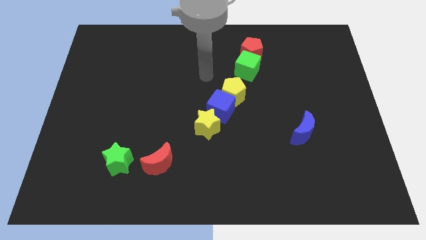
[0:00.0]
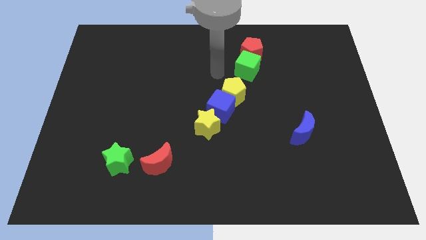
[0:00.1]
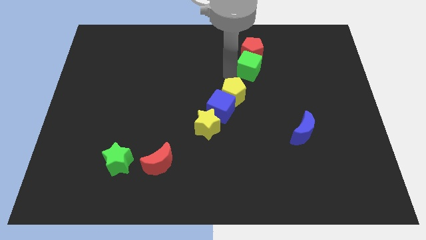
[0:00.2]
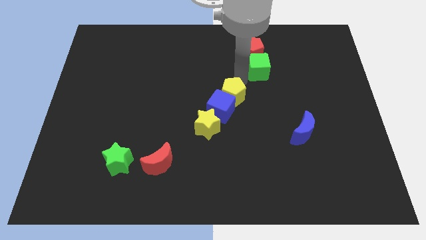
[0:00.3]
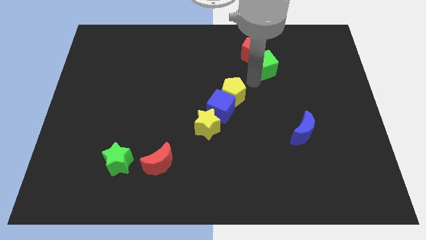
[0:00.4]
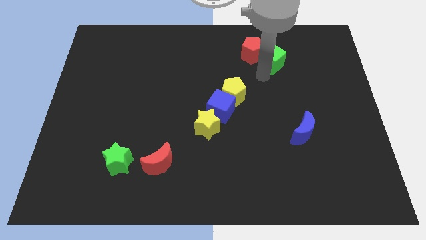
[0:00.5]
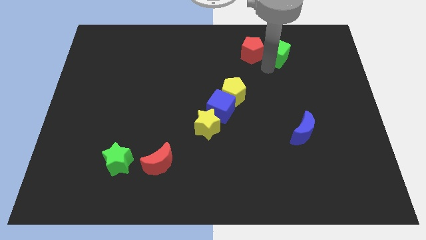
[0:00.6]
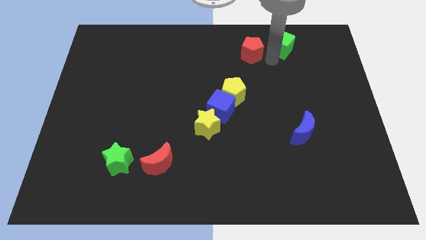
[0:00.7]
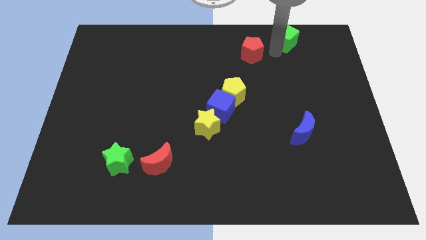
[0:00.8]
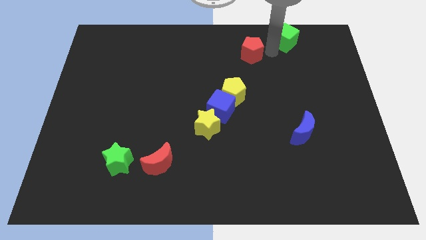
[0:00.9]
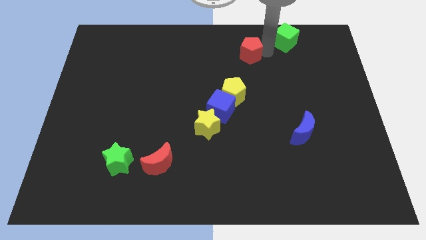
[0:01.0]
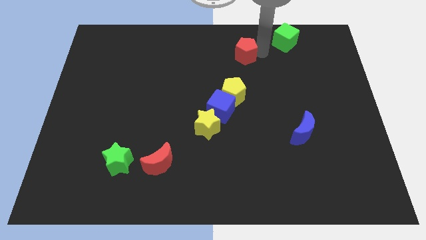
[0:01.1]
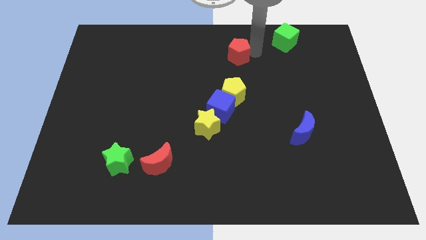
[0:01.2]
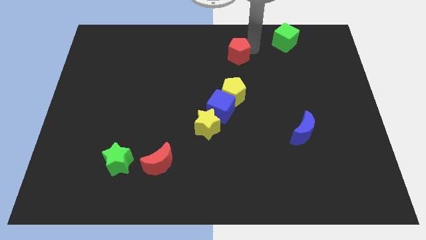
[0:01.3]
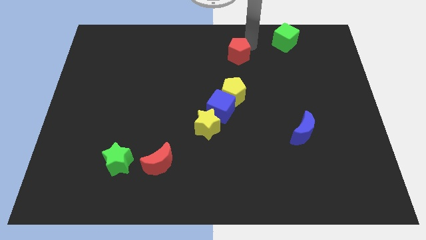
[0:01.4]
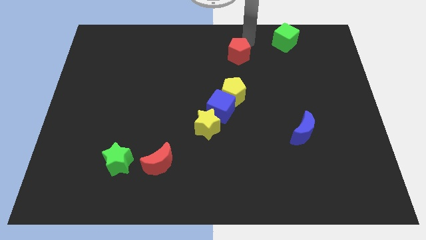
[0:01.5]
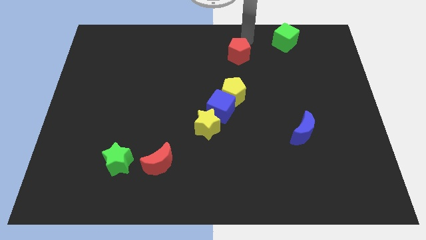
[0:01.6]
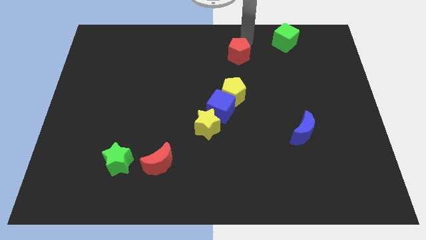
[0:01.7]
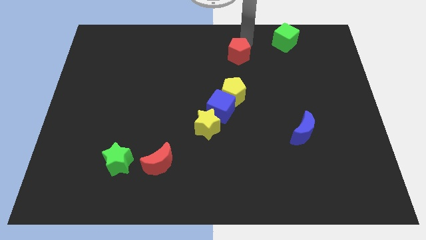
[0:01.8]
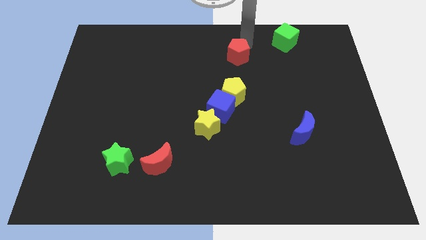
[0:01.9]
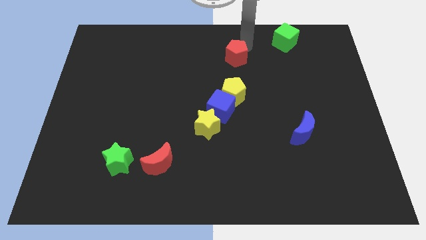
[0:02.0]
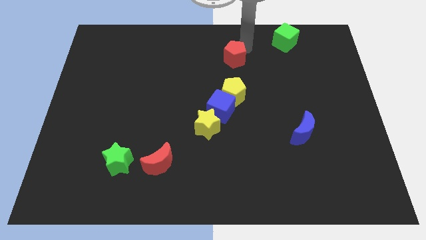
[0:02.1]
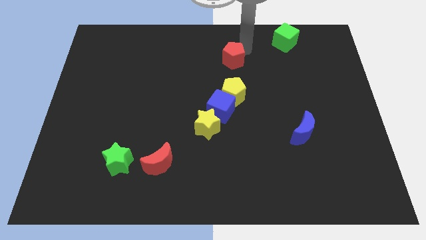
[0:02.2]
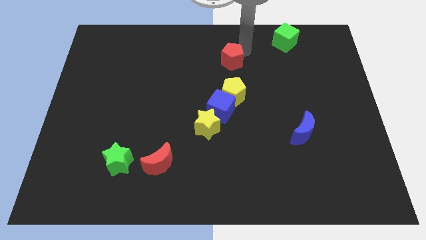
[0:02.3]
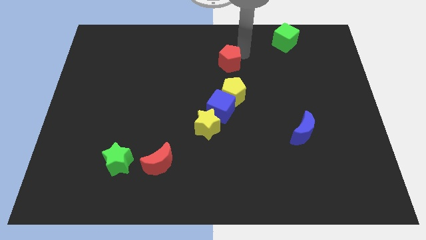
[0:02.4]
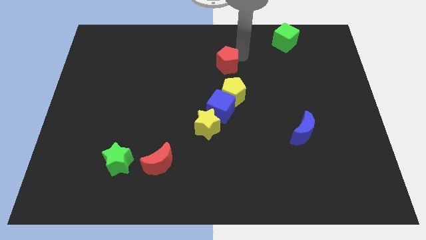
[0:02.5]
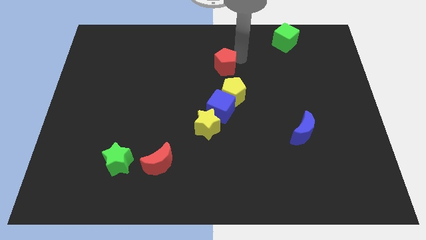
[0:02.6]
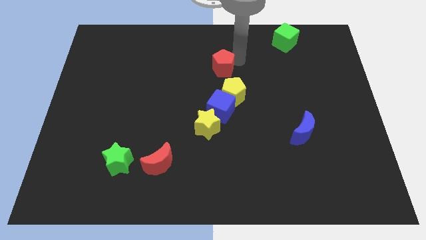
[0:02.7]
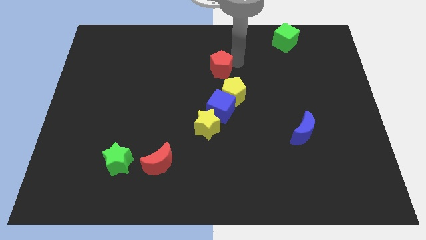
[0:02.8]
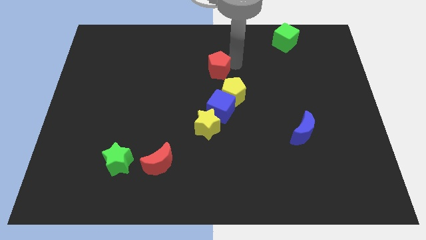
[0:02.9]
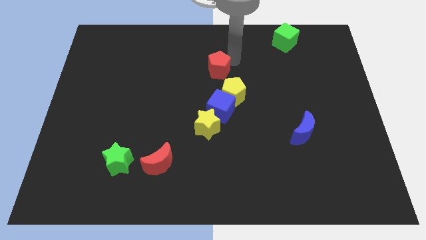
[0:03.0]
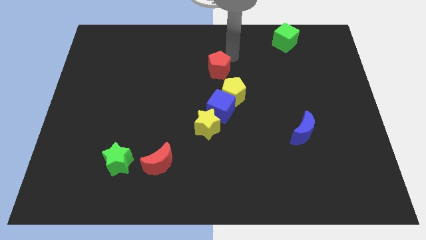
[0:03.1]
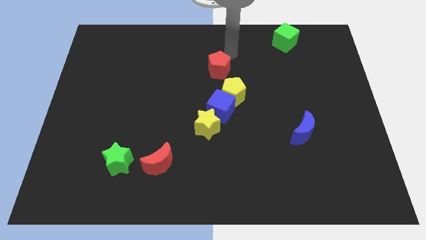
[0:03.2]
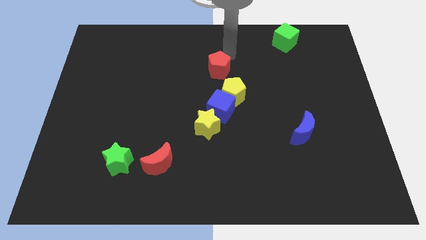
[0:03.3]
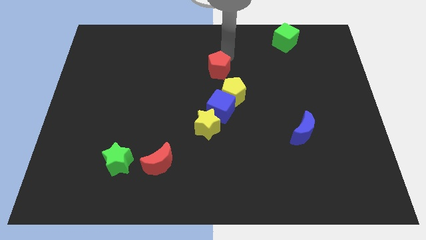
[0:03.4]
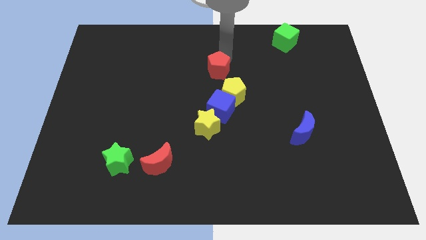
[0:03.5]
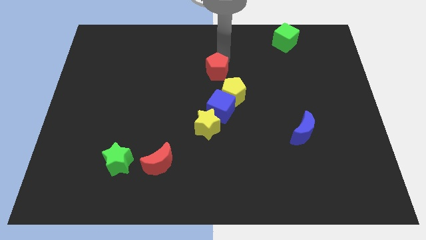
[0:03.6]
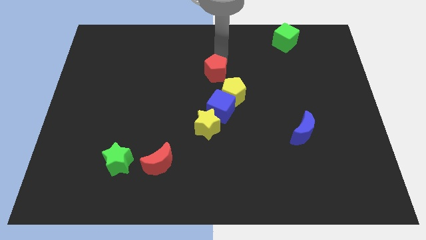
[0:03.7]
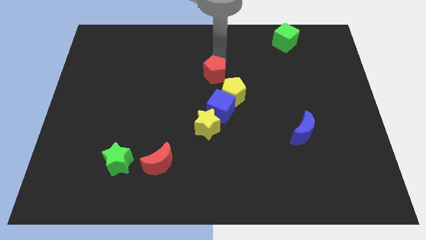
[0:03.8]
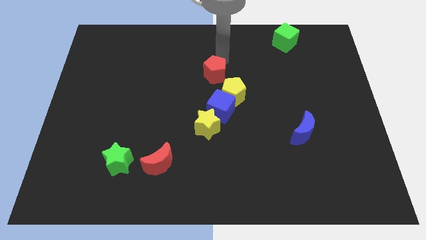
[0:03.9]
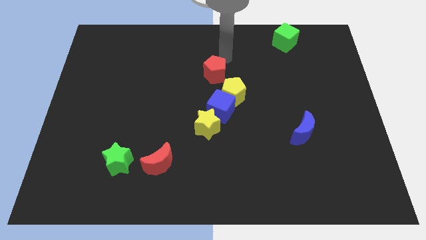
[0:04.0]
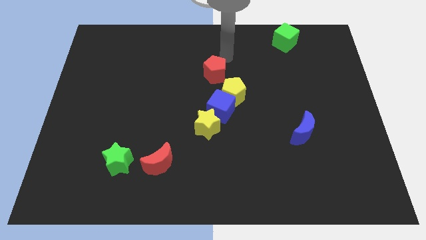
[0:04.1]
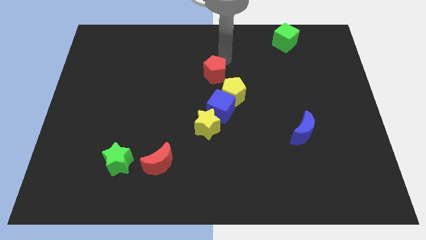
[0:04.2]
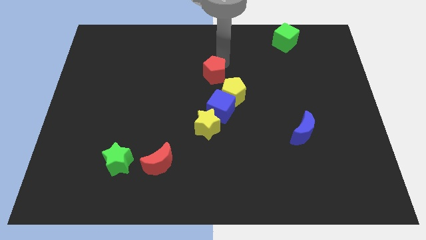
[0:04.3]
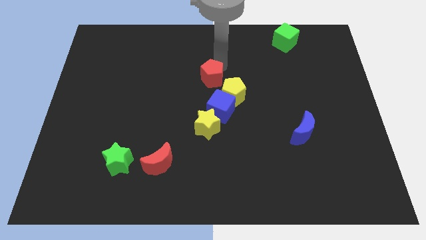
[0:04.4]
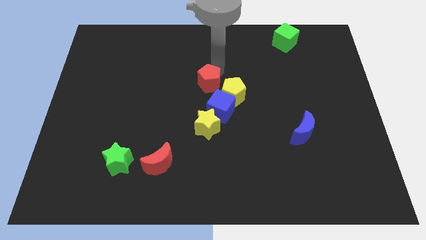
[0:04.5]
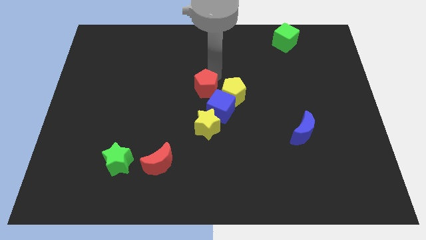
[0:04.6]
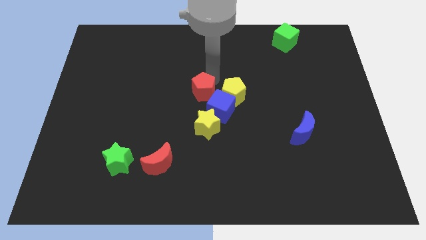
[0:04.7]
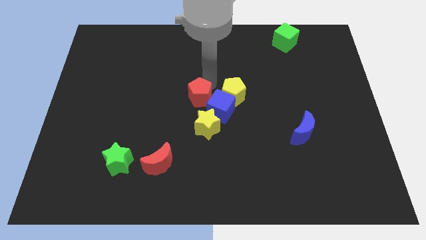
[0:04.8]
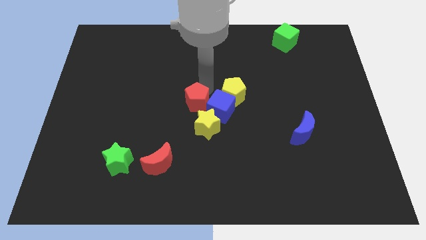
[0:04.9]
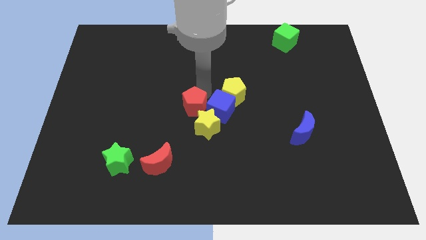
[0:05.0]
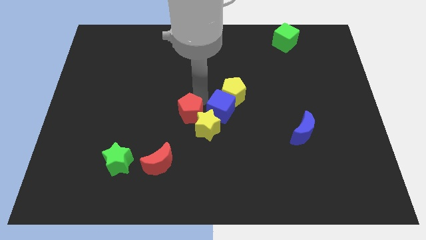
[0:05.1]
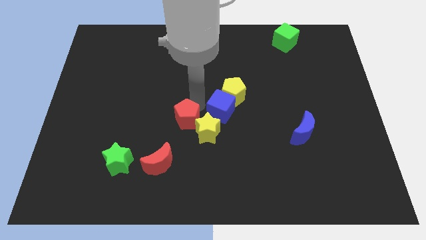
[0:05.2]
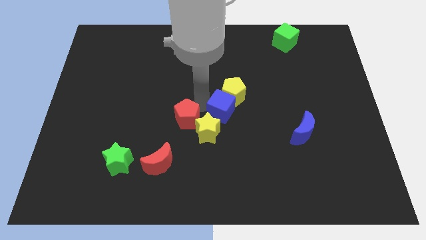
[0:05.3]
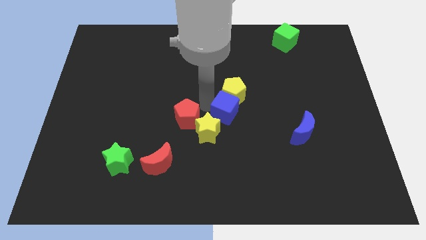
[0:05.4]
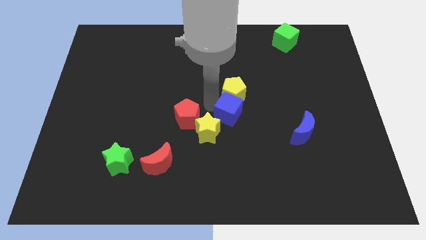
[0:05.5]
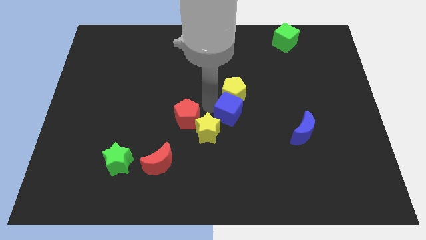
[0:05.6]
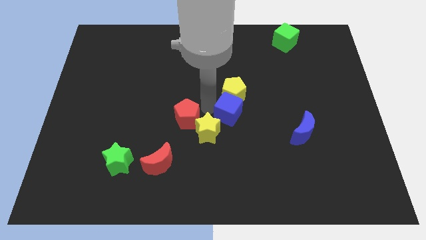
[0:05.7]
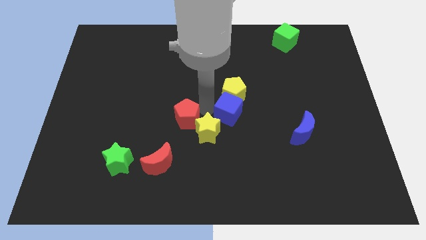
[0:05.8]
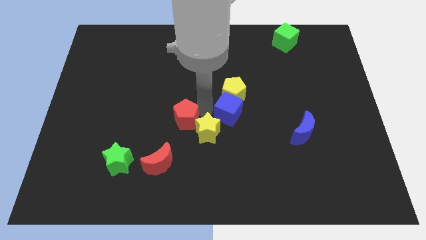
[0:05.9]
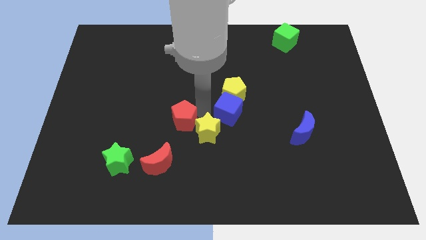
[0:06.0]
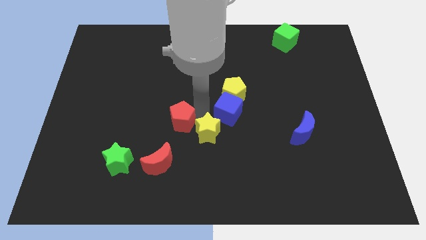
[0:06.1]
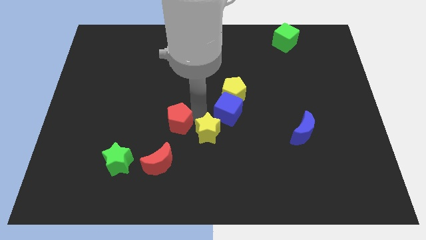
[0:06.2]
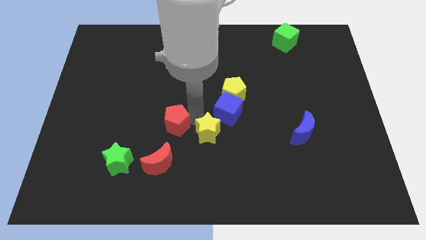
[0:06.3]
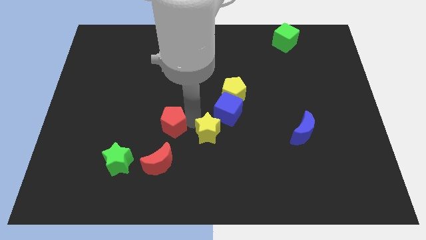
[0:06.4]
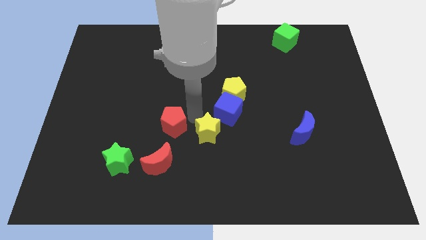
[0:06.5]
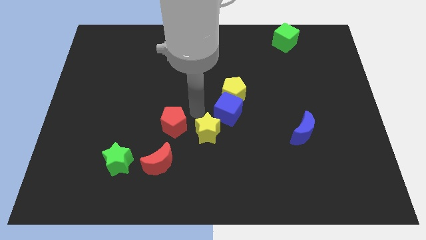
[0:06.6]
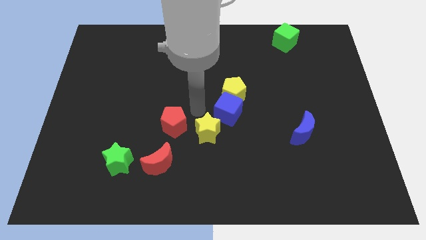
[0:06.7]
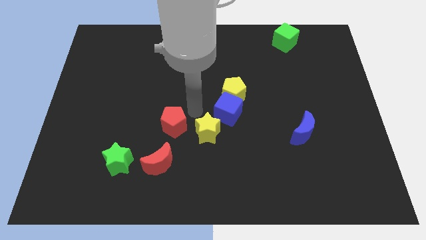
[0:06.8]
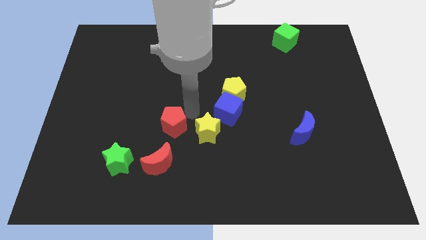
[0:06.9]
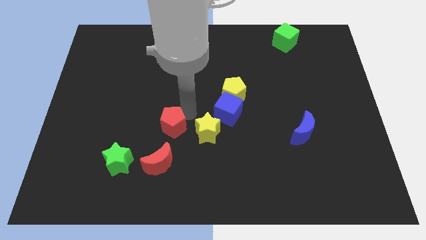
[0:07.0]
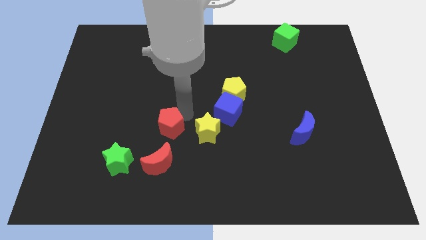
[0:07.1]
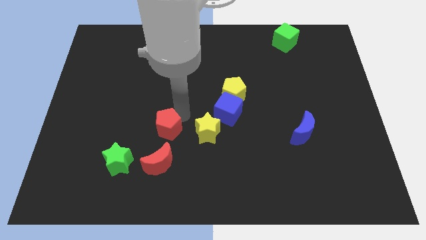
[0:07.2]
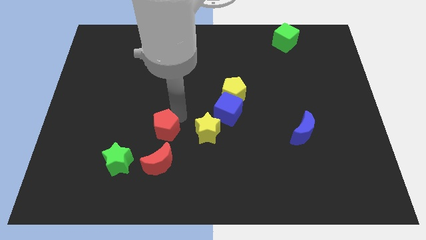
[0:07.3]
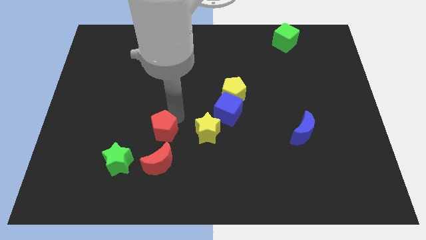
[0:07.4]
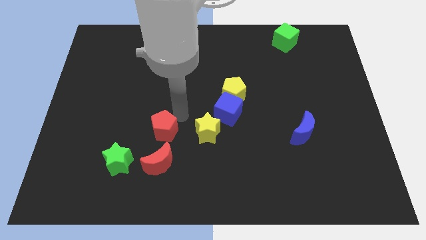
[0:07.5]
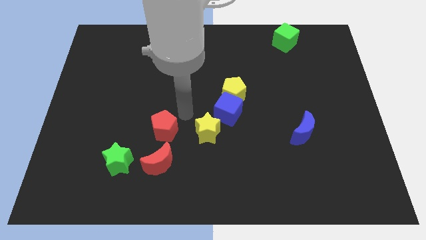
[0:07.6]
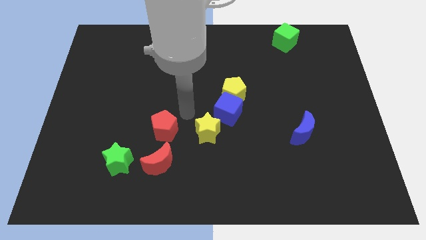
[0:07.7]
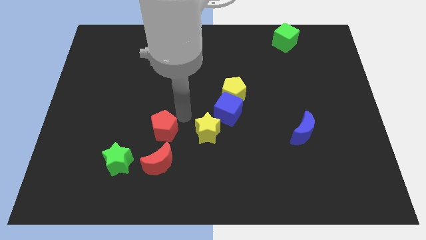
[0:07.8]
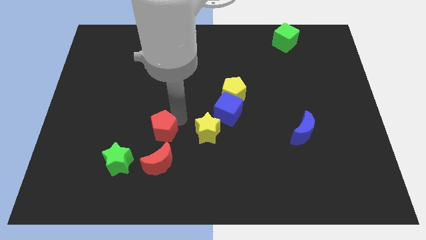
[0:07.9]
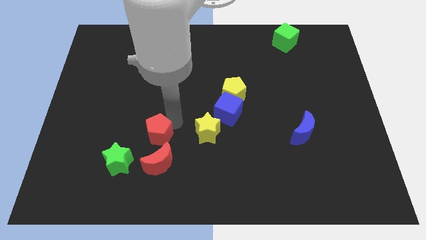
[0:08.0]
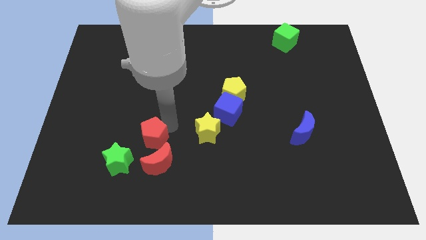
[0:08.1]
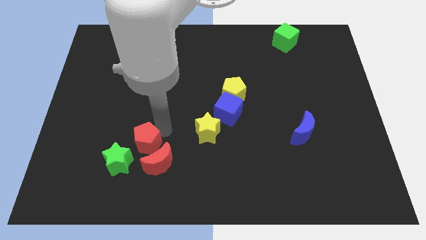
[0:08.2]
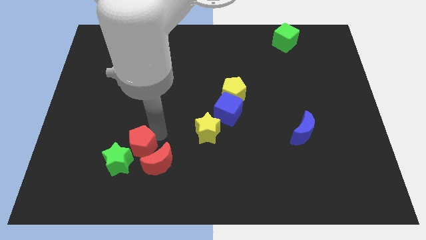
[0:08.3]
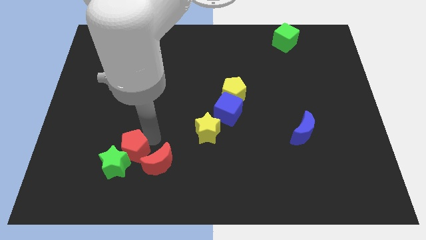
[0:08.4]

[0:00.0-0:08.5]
put the red pentagon close to the green star
